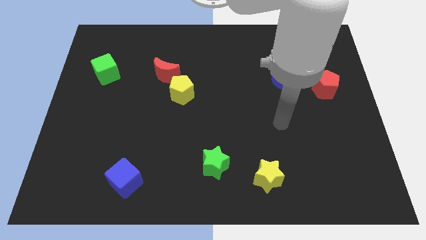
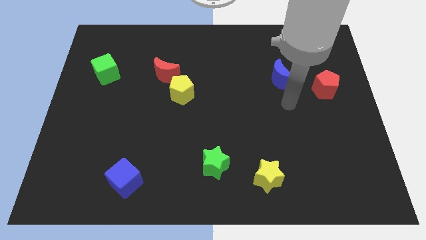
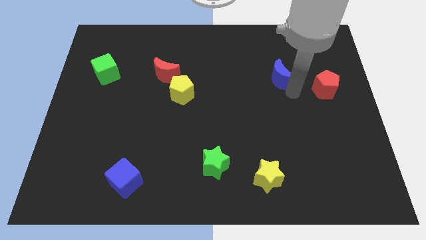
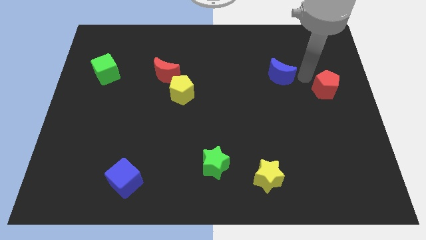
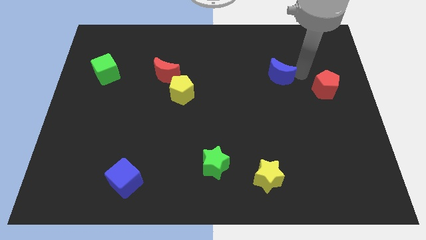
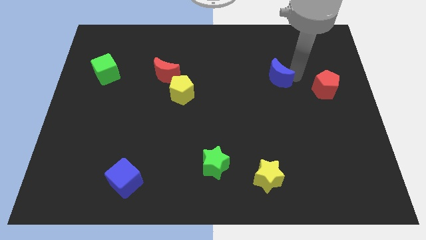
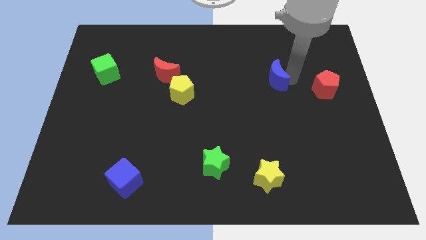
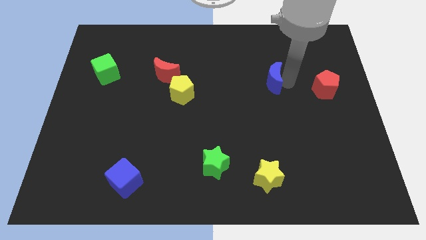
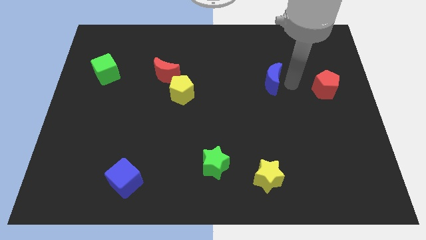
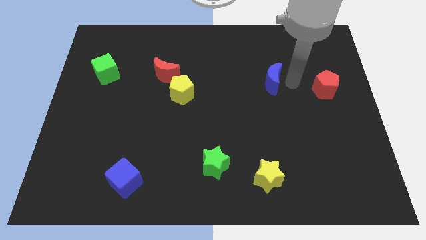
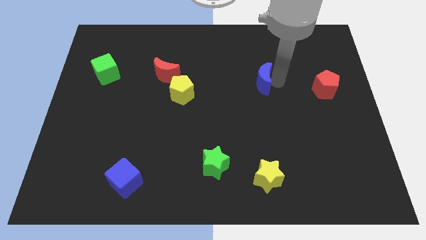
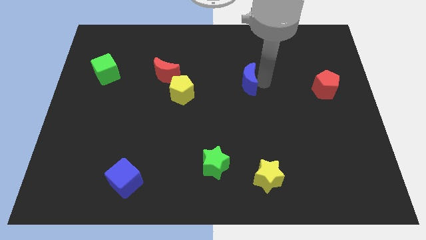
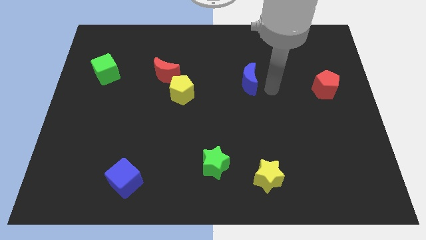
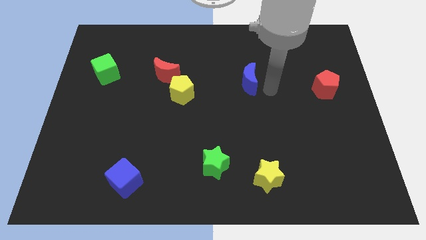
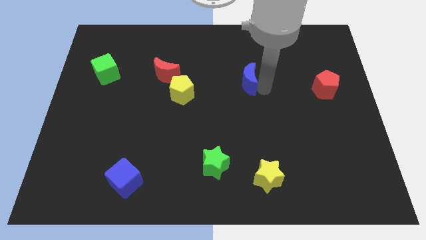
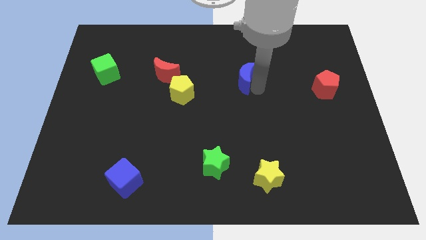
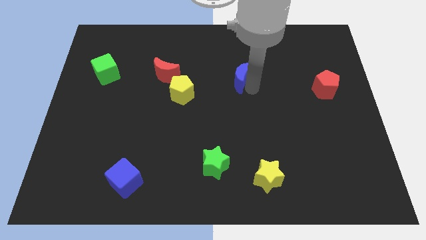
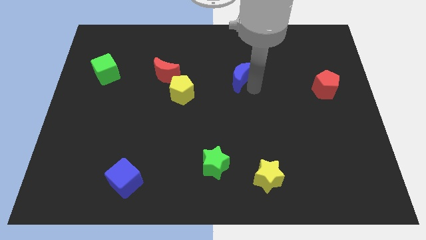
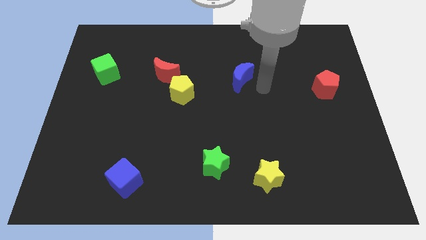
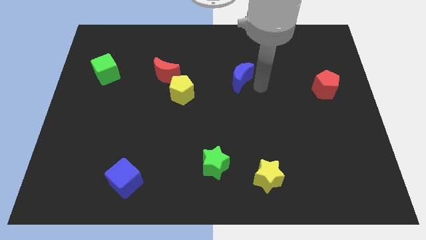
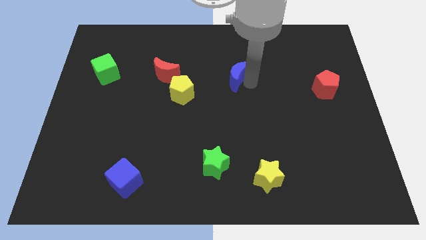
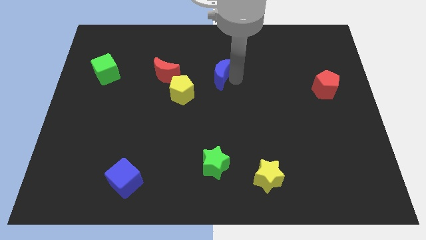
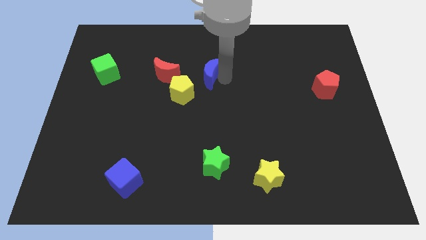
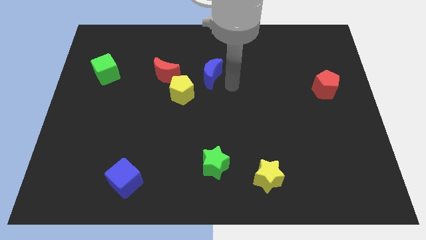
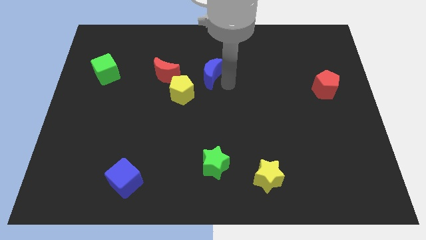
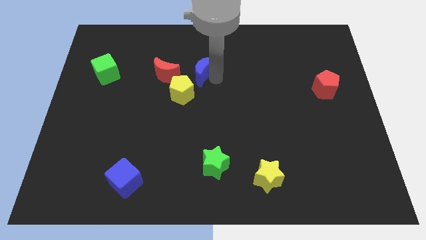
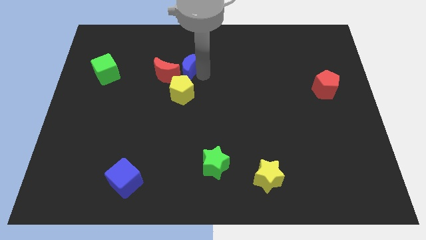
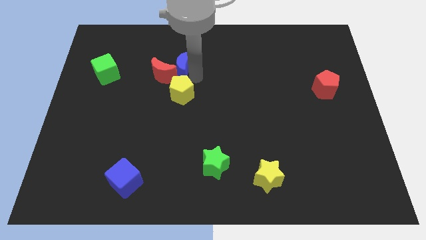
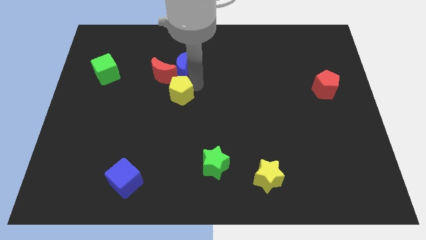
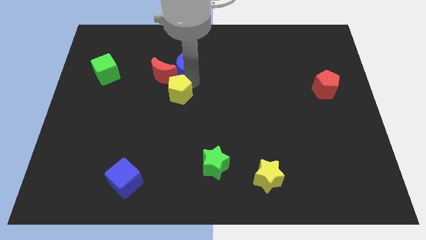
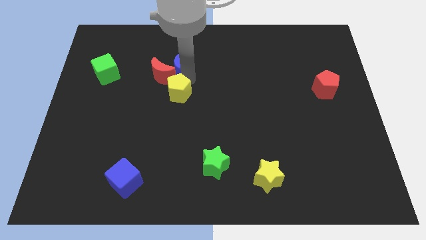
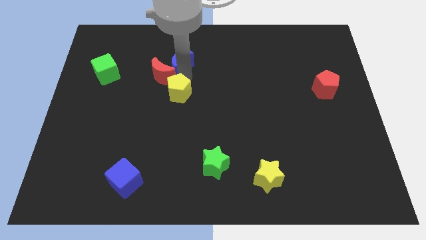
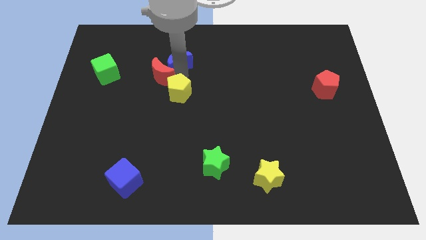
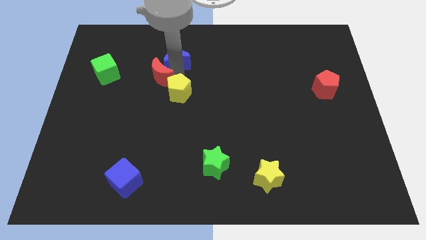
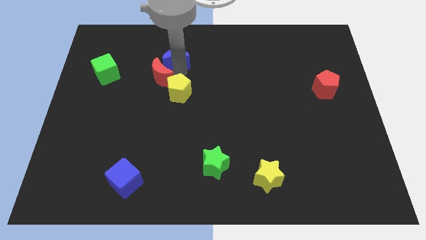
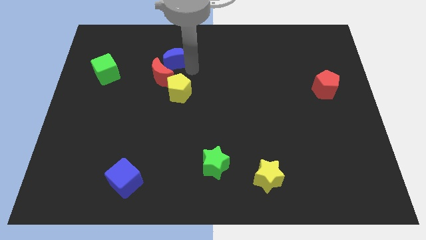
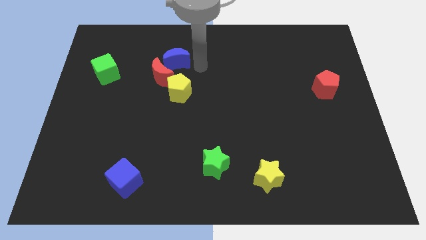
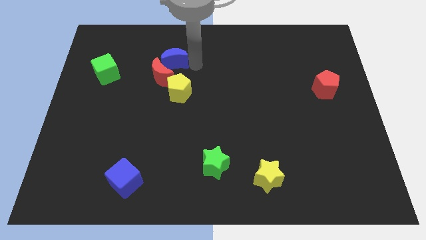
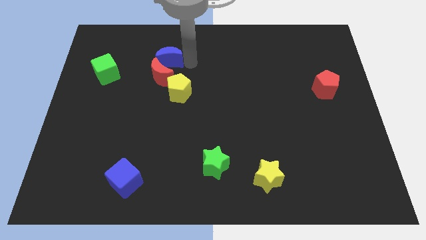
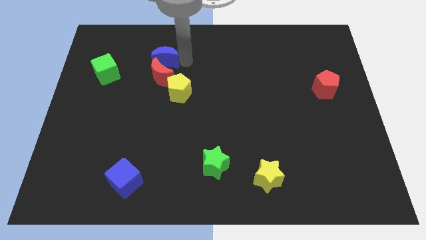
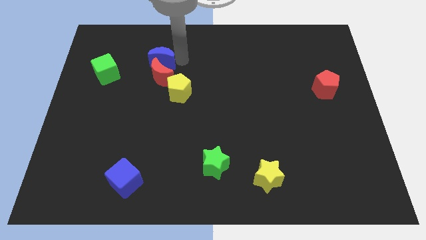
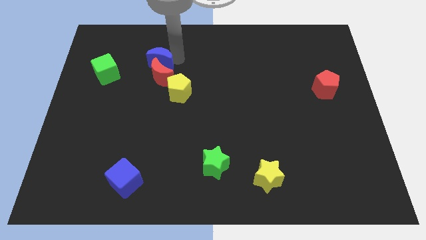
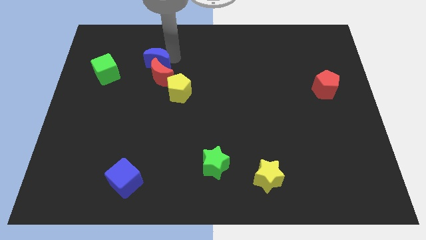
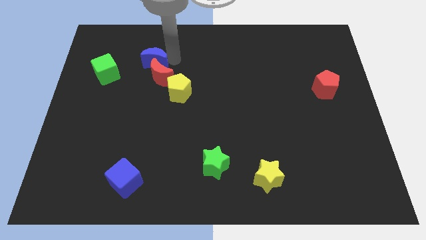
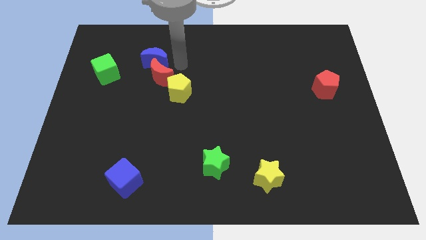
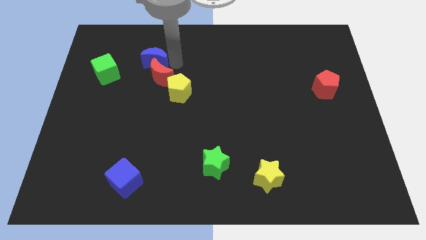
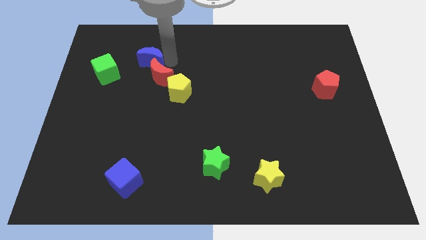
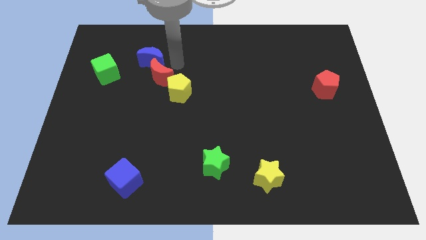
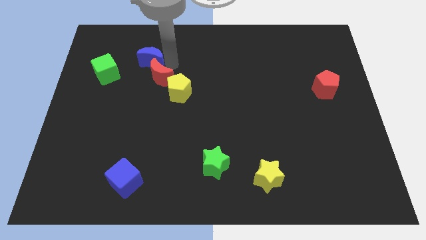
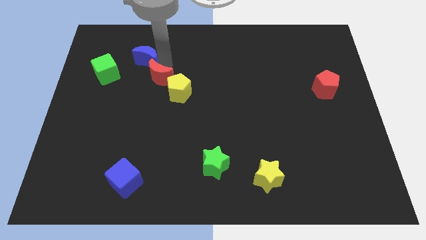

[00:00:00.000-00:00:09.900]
push the blue moon to the top right of the green cube

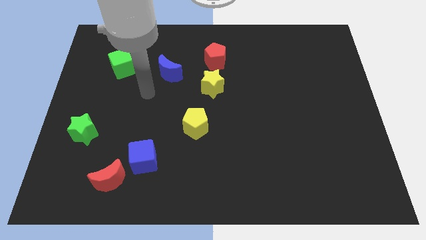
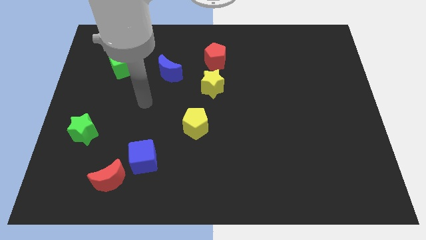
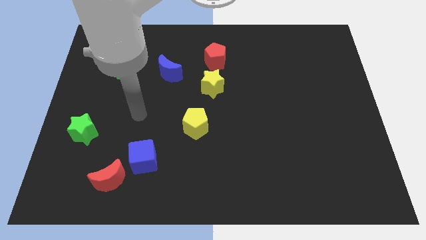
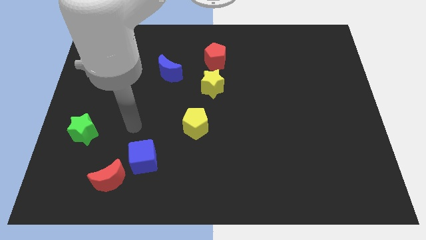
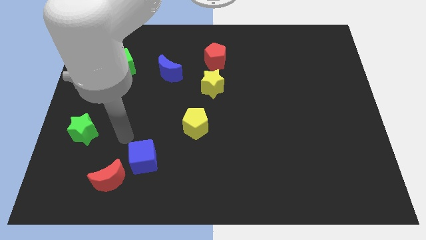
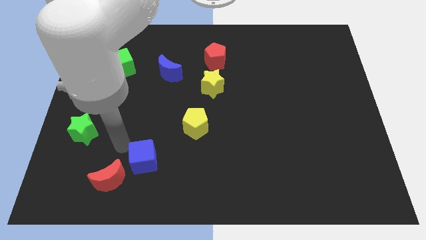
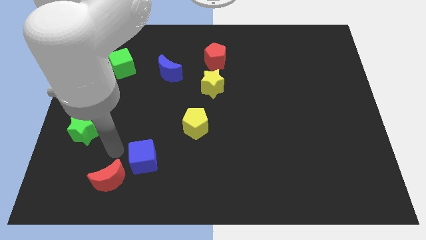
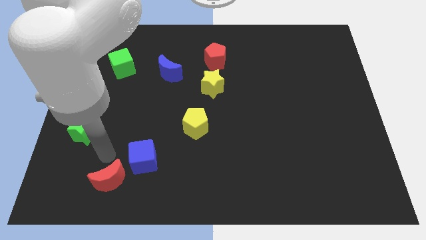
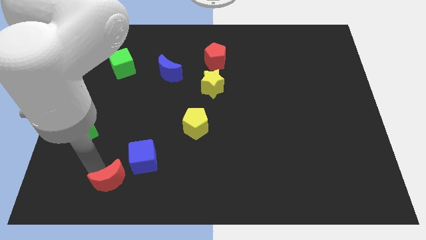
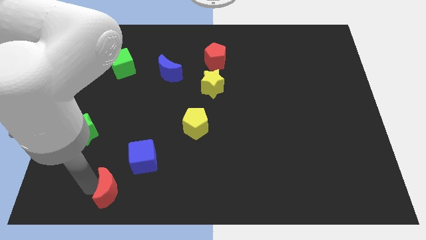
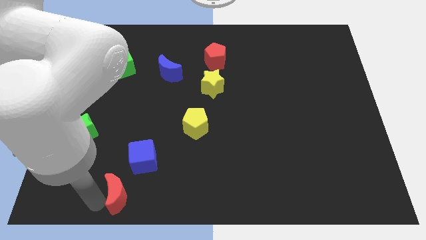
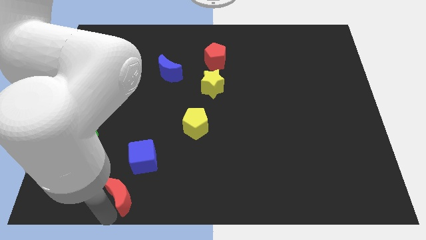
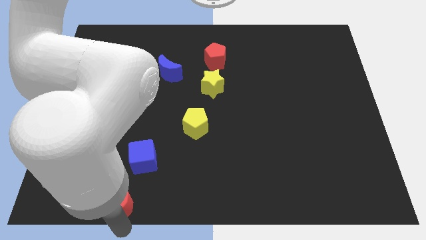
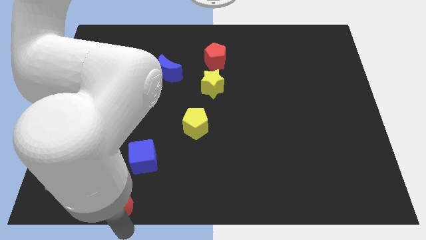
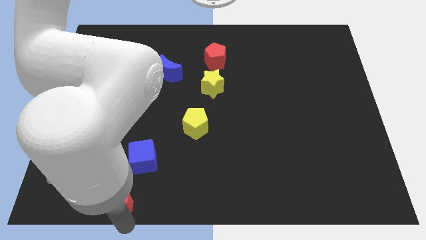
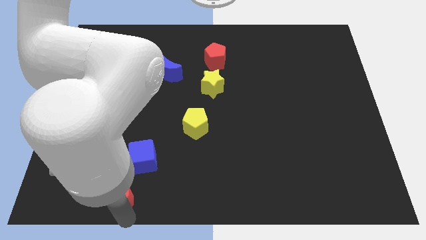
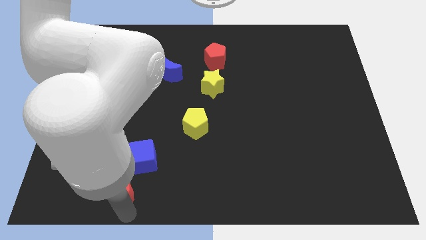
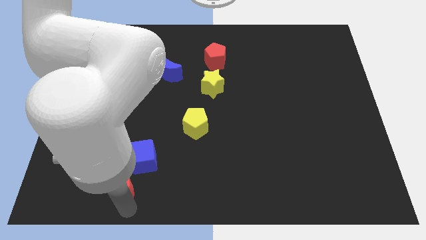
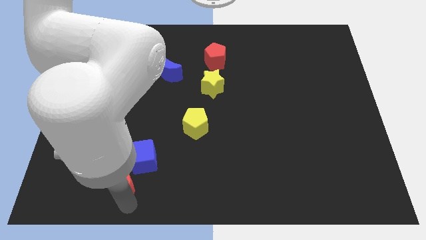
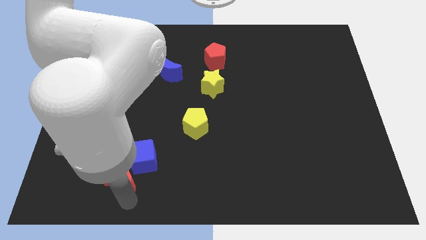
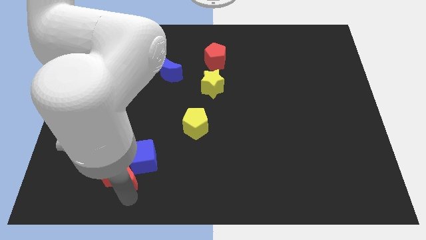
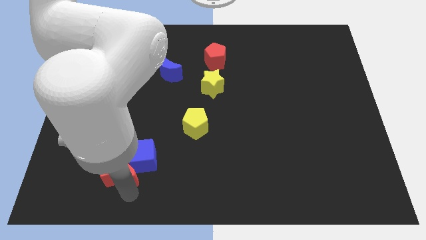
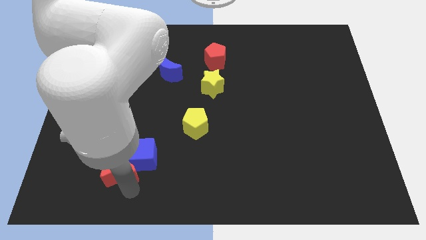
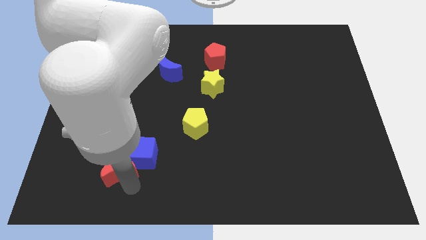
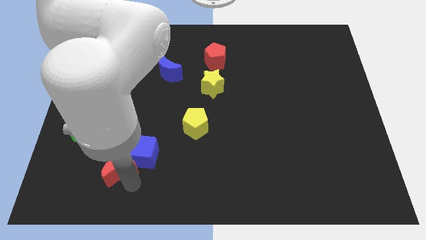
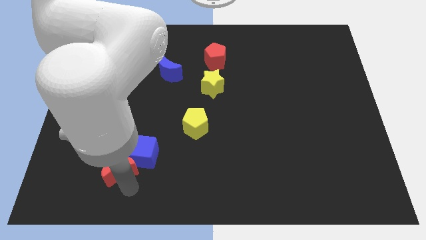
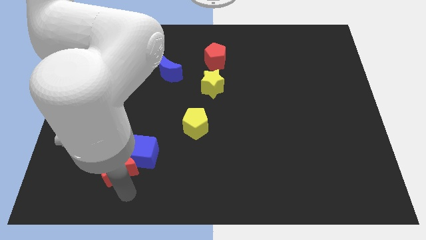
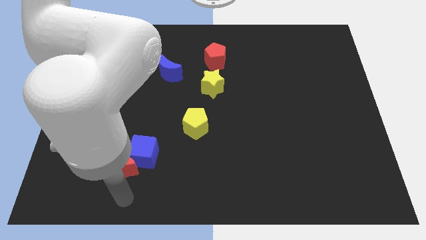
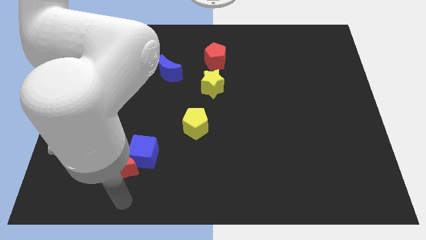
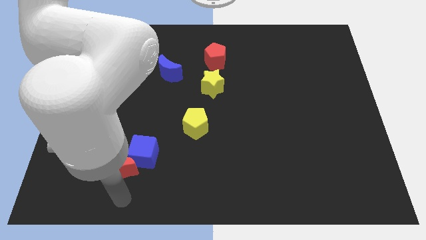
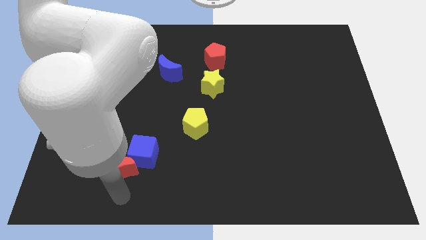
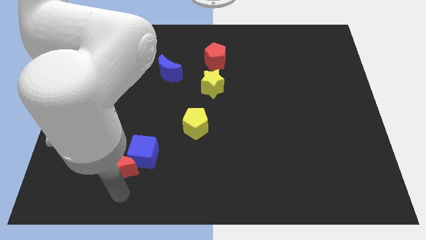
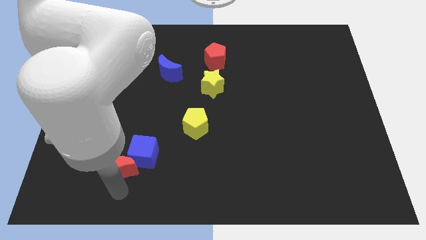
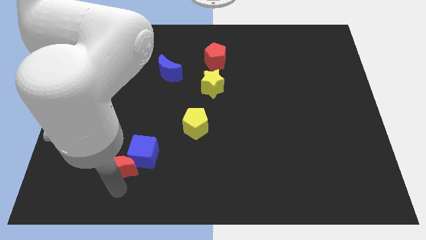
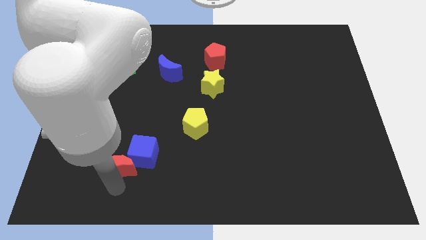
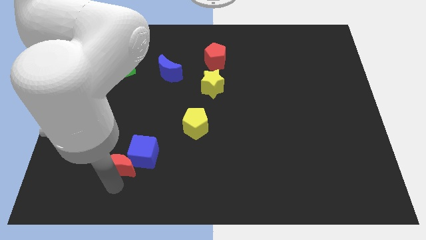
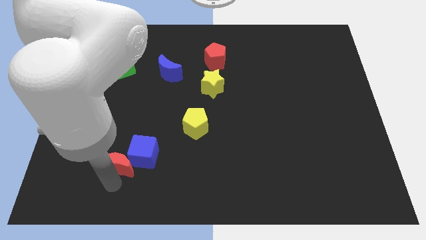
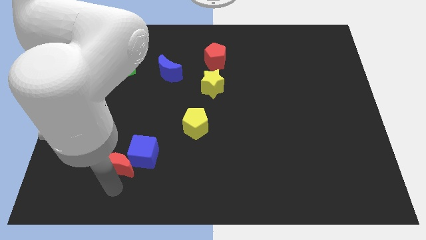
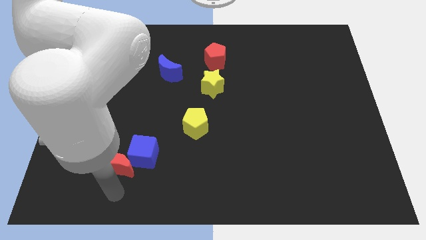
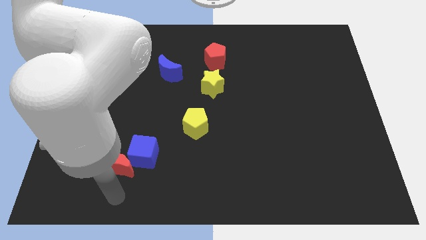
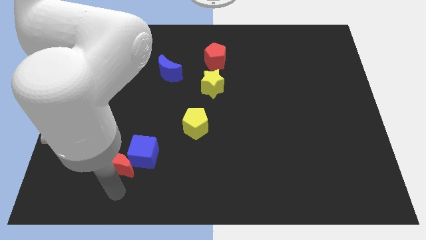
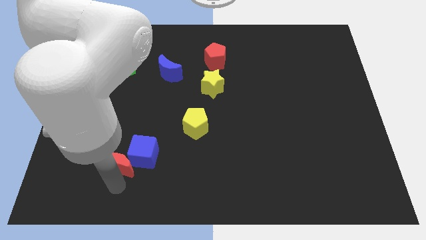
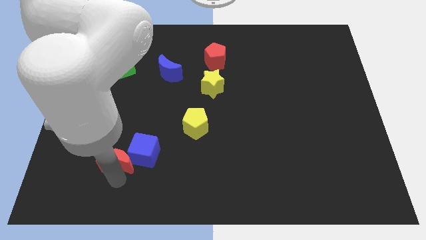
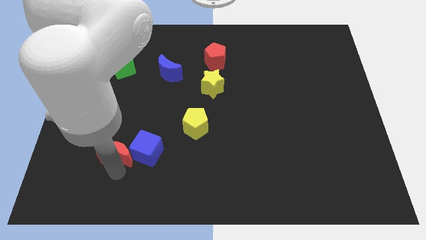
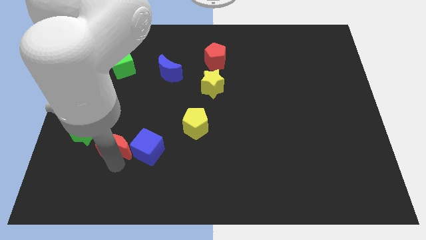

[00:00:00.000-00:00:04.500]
put the red moon to the top left side of the blue cube
